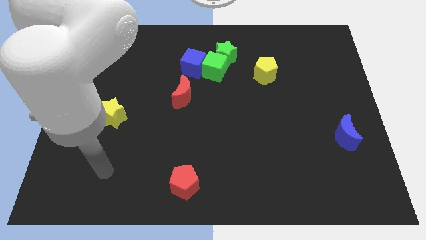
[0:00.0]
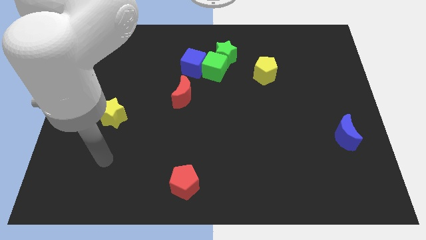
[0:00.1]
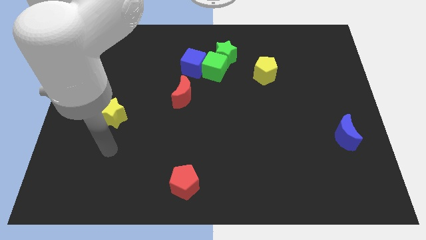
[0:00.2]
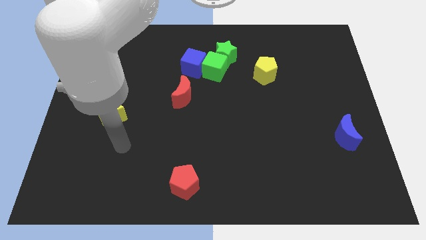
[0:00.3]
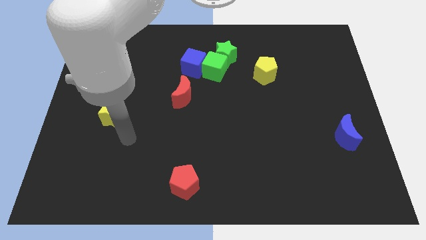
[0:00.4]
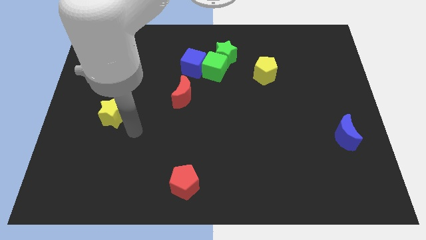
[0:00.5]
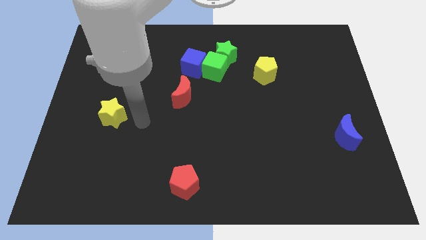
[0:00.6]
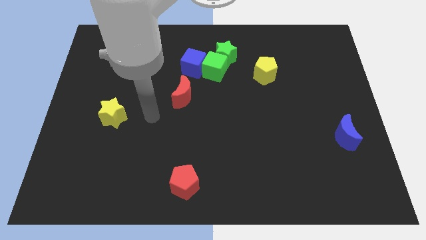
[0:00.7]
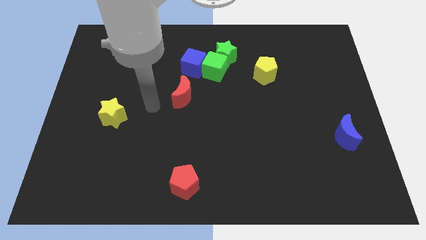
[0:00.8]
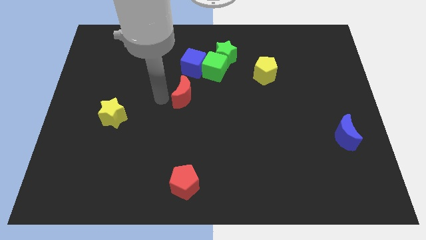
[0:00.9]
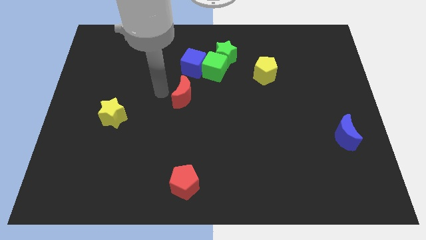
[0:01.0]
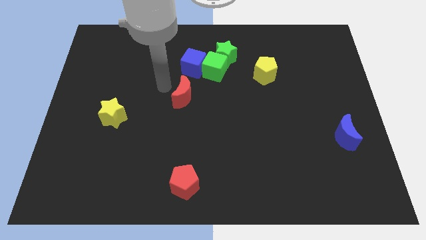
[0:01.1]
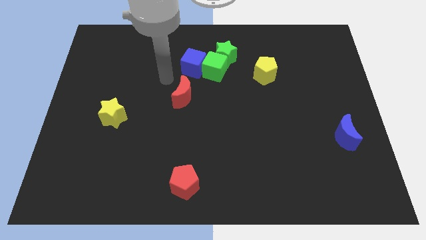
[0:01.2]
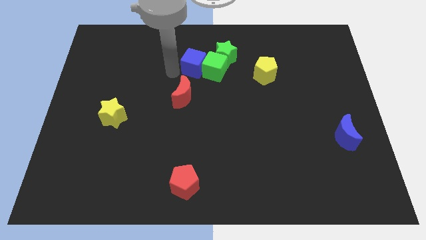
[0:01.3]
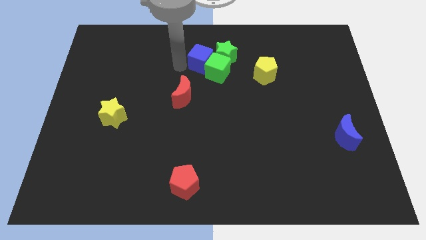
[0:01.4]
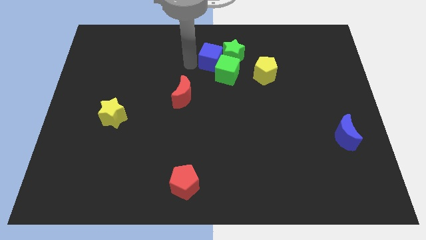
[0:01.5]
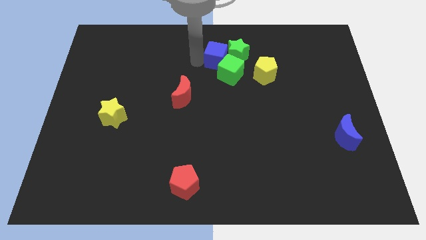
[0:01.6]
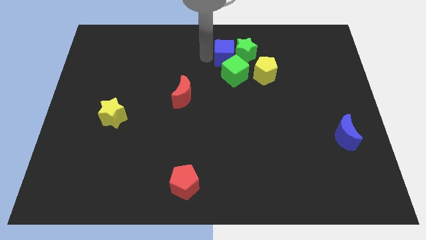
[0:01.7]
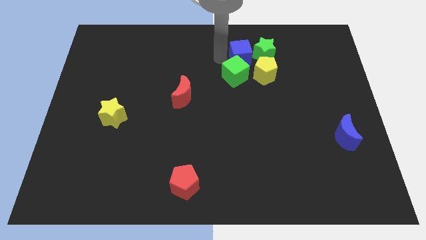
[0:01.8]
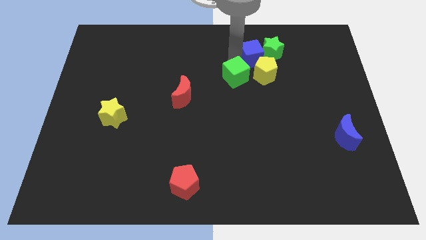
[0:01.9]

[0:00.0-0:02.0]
move the green cube away from the blue cube and green star

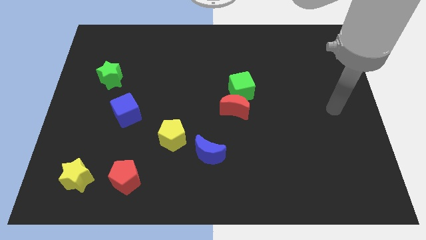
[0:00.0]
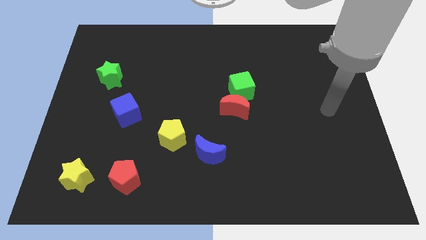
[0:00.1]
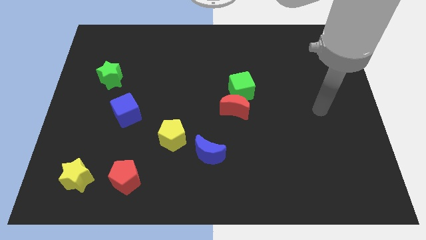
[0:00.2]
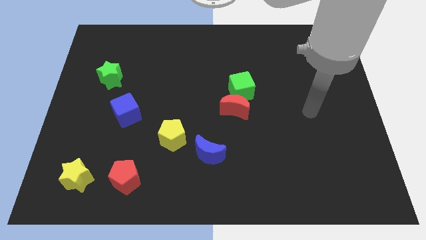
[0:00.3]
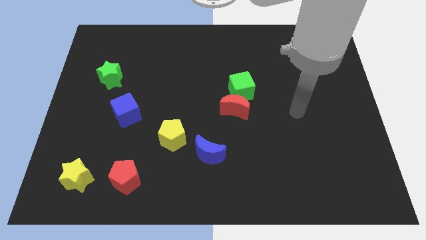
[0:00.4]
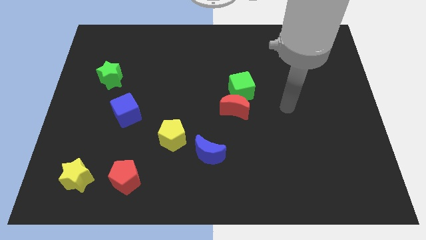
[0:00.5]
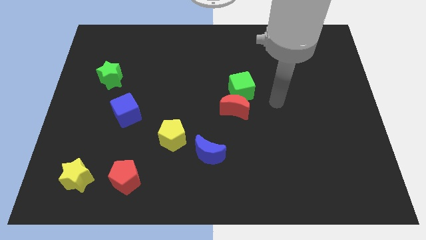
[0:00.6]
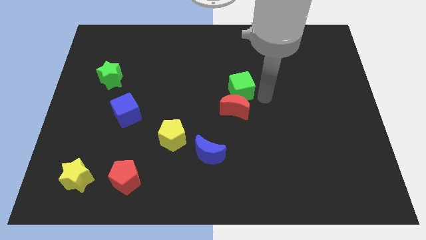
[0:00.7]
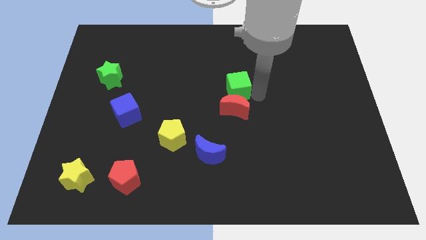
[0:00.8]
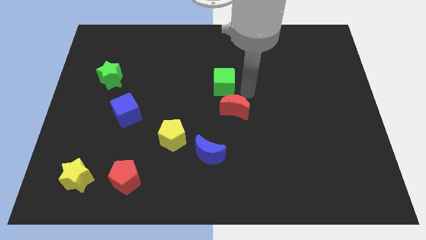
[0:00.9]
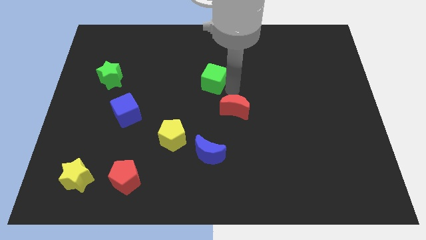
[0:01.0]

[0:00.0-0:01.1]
separate the red moon from the green cube

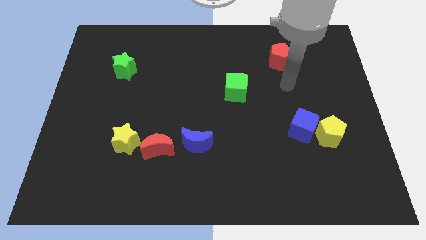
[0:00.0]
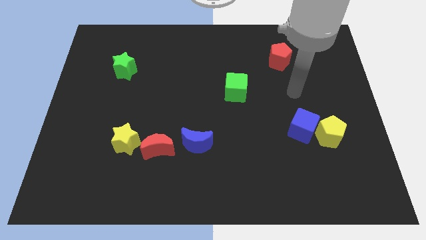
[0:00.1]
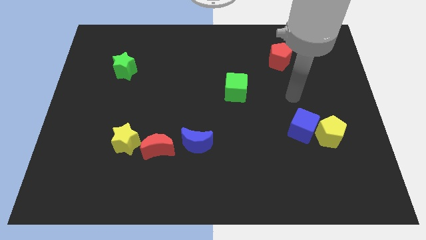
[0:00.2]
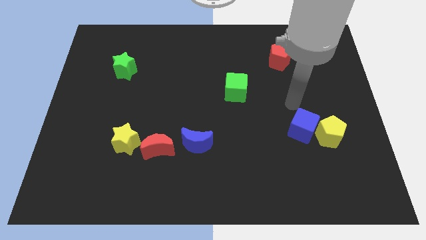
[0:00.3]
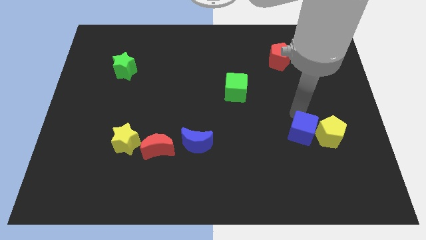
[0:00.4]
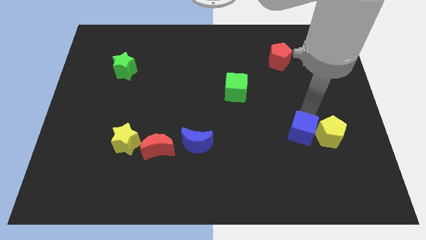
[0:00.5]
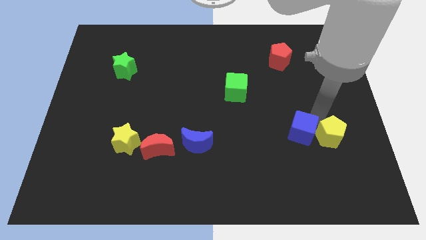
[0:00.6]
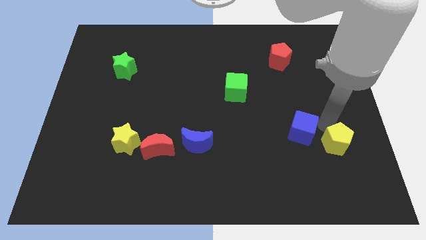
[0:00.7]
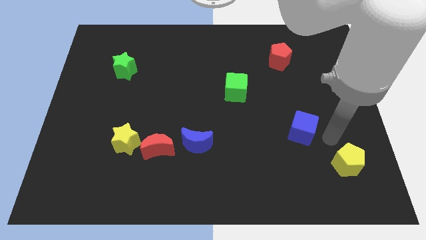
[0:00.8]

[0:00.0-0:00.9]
pull the blue cube apart from the yellow pentagon

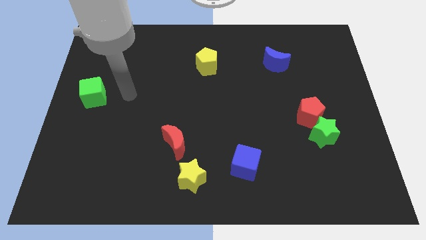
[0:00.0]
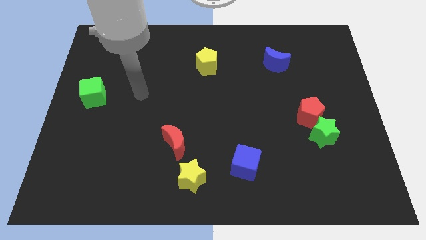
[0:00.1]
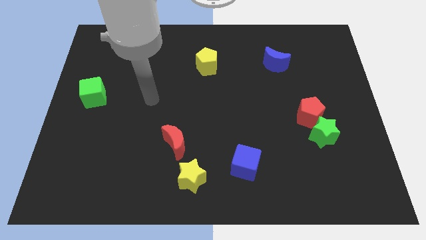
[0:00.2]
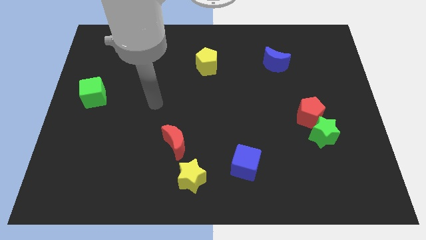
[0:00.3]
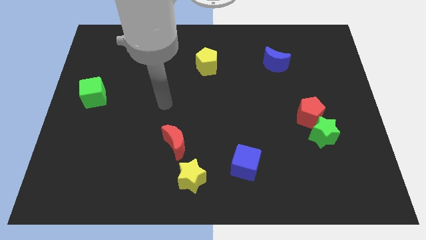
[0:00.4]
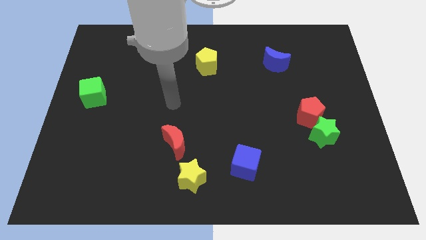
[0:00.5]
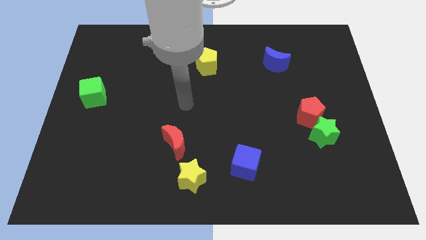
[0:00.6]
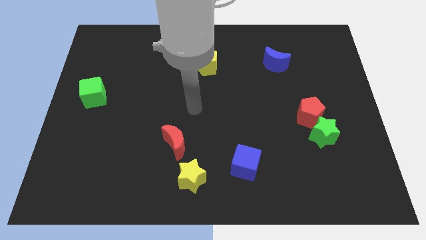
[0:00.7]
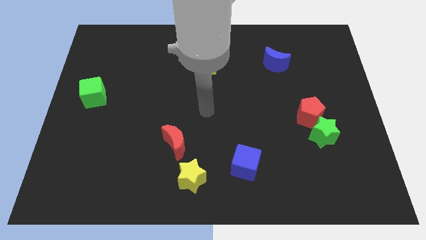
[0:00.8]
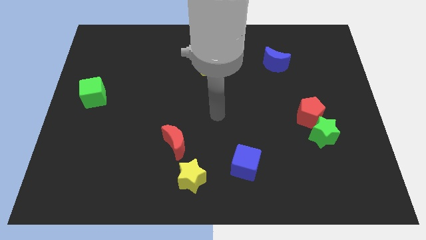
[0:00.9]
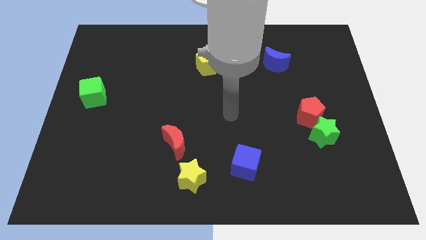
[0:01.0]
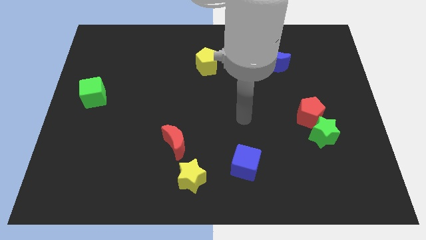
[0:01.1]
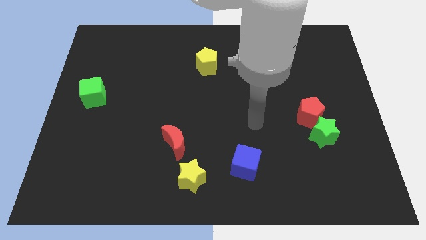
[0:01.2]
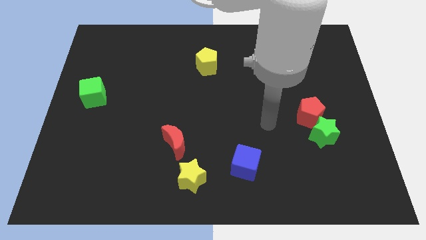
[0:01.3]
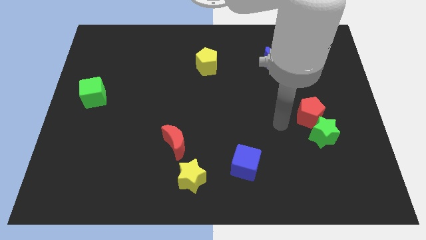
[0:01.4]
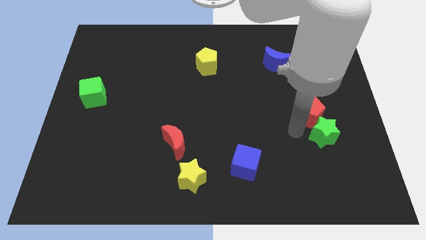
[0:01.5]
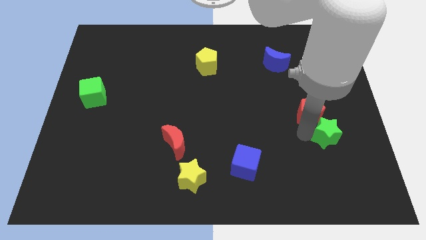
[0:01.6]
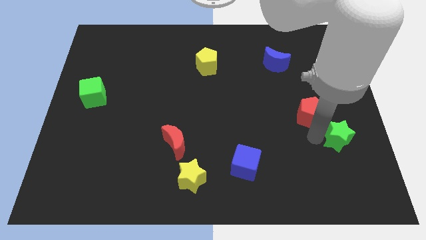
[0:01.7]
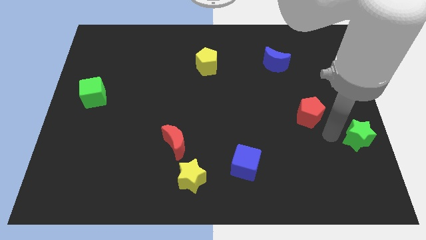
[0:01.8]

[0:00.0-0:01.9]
pull the red pentagon apart from the green star

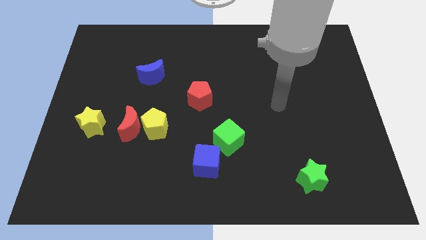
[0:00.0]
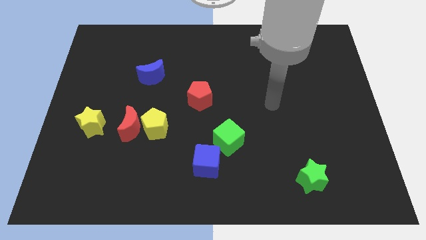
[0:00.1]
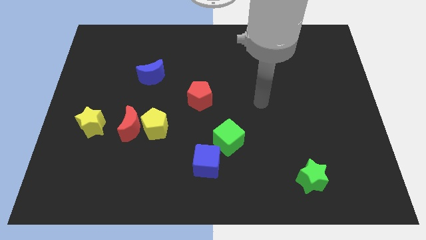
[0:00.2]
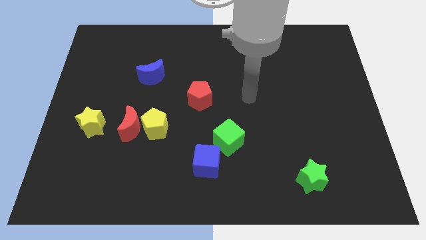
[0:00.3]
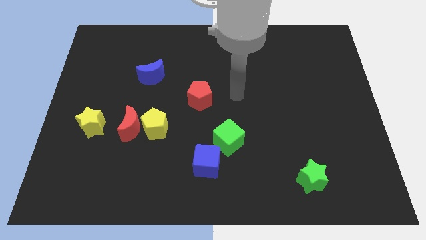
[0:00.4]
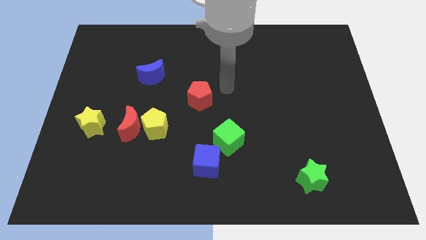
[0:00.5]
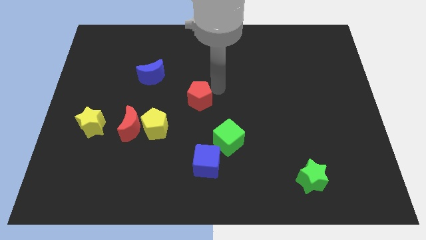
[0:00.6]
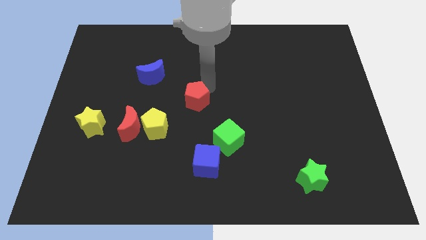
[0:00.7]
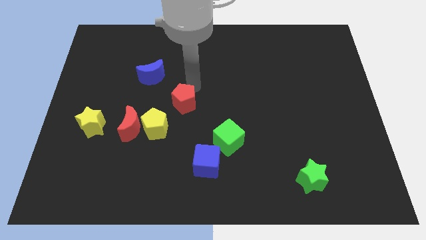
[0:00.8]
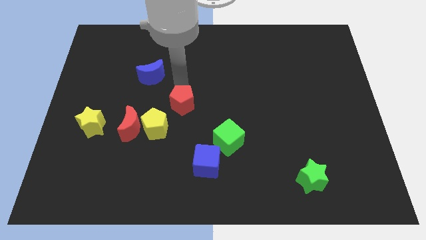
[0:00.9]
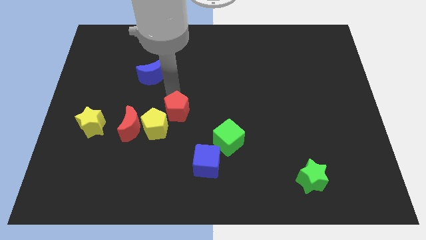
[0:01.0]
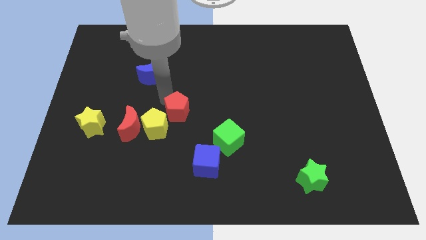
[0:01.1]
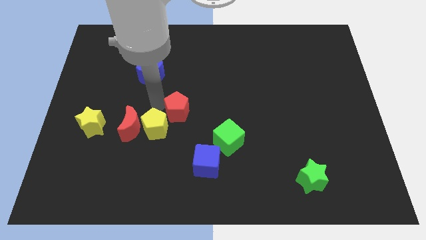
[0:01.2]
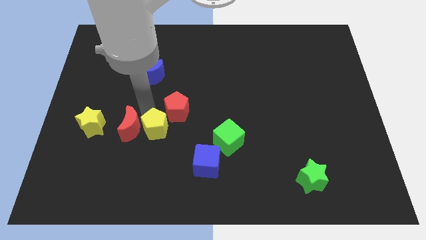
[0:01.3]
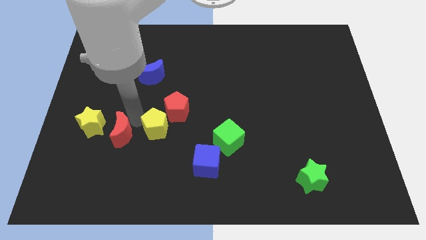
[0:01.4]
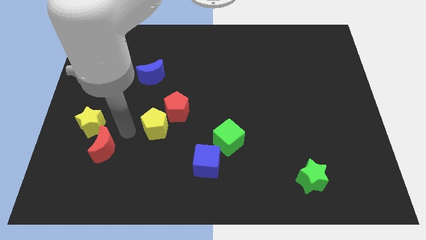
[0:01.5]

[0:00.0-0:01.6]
move the yellow pentagon away from the red moon

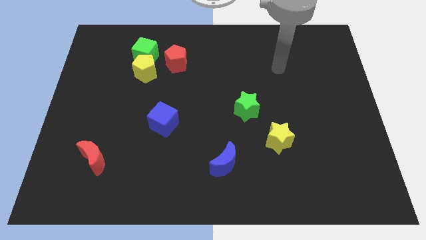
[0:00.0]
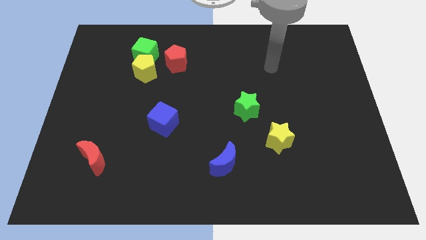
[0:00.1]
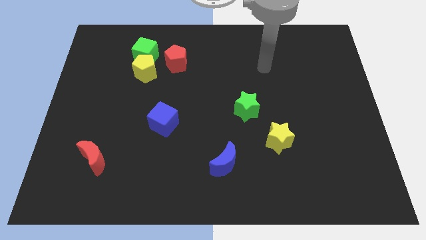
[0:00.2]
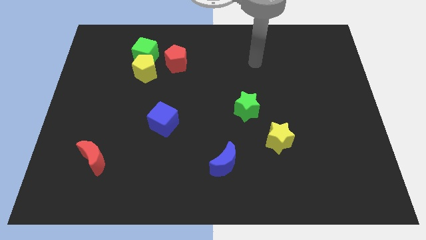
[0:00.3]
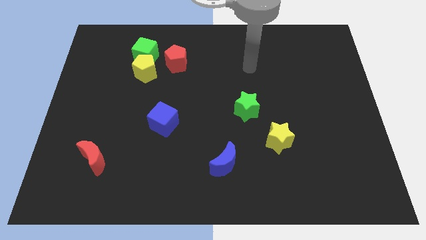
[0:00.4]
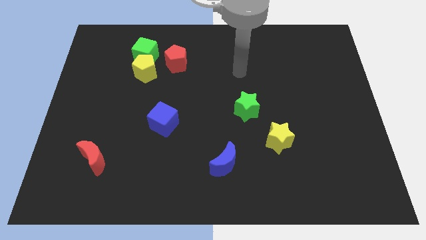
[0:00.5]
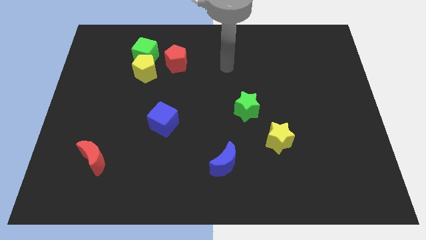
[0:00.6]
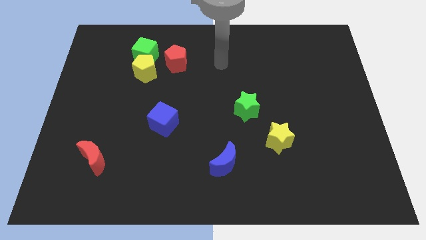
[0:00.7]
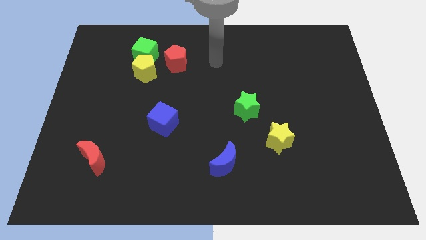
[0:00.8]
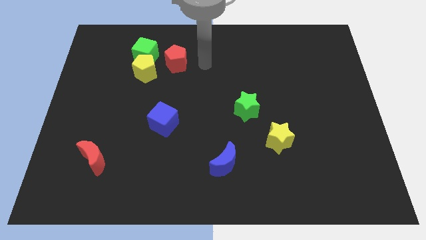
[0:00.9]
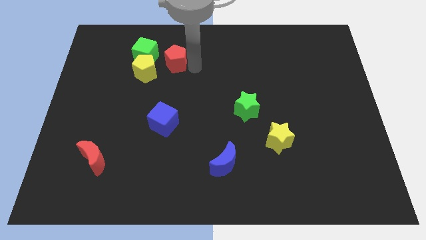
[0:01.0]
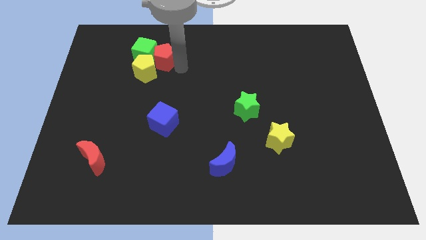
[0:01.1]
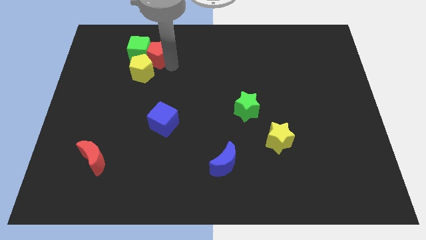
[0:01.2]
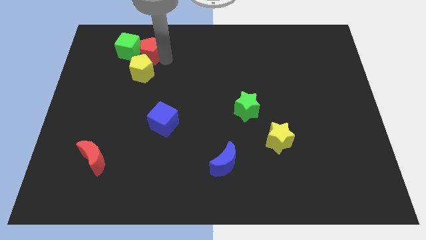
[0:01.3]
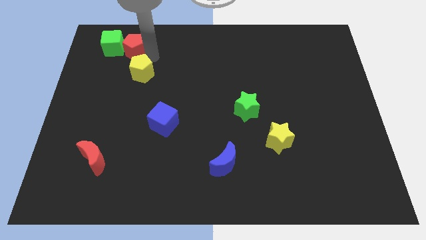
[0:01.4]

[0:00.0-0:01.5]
pull the yellow pentagon apart from the green cube and red pentagon

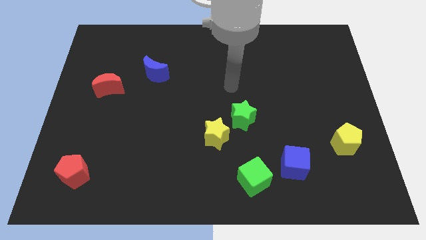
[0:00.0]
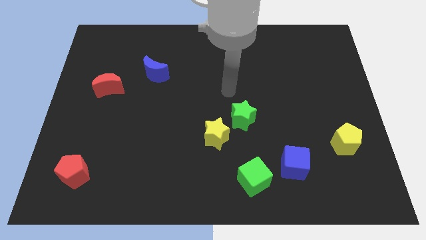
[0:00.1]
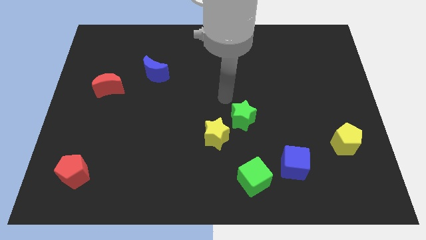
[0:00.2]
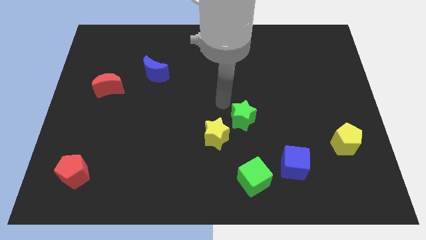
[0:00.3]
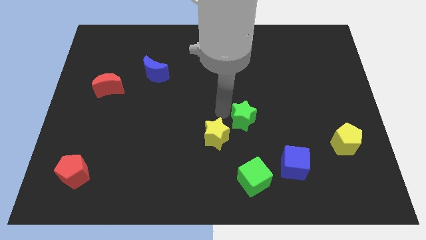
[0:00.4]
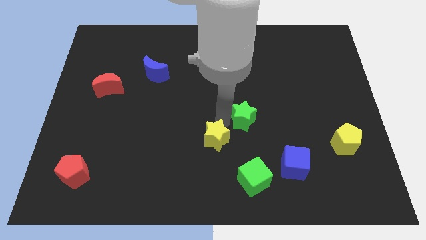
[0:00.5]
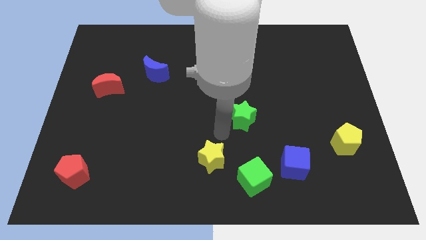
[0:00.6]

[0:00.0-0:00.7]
separate the green star from the yellow star
